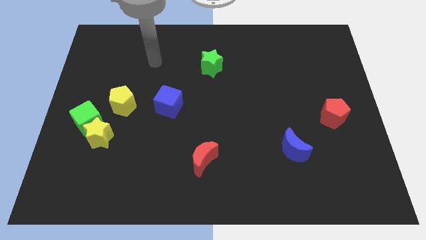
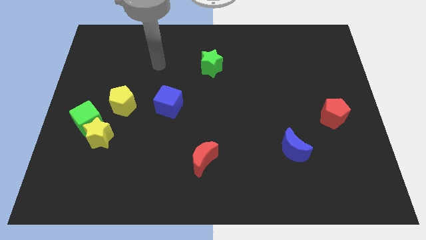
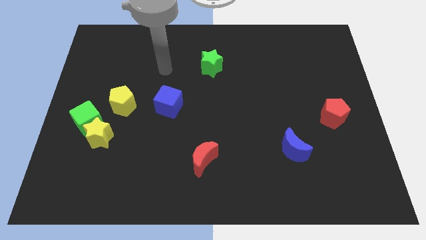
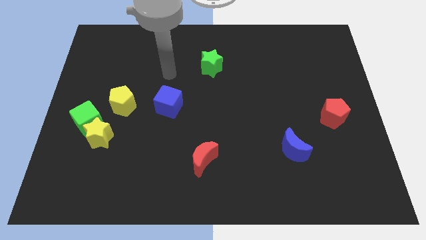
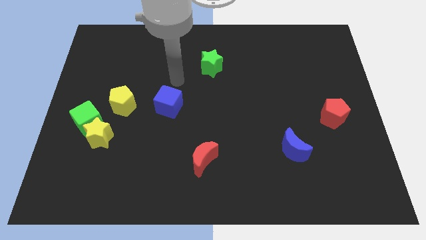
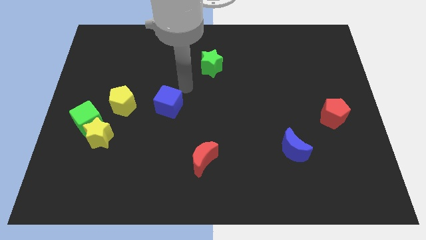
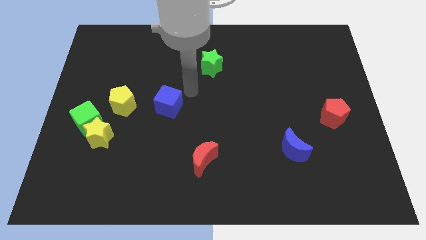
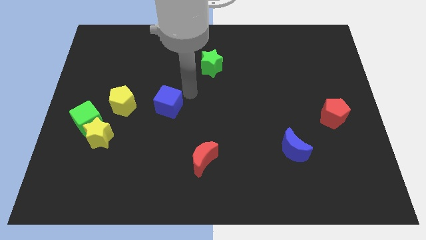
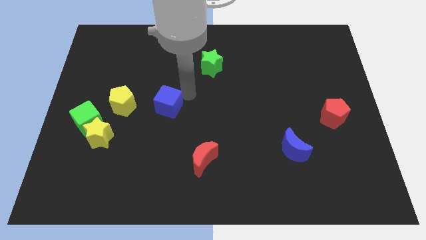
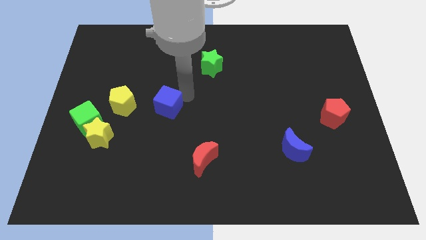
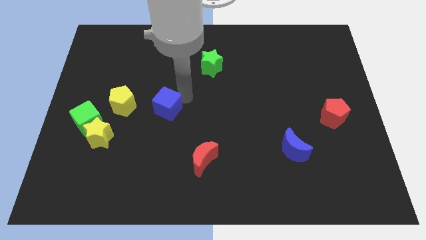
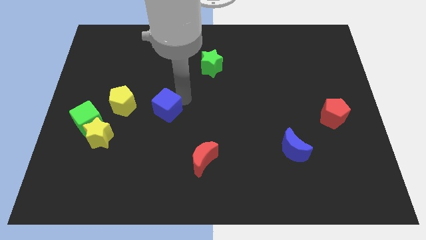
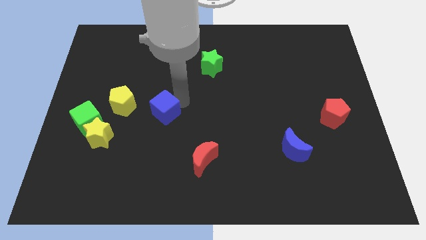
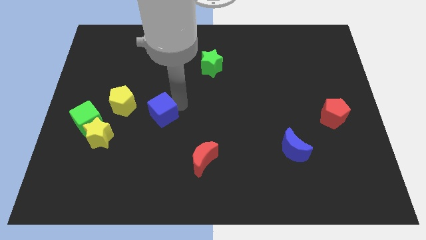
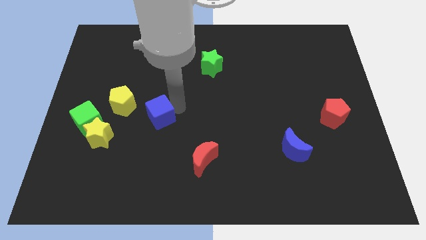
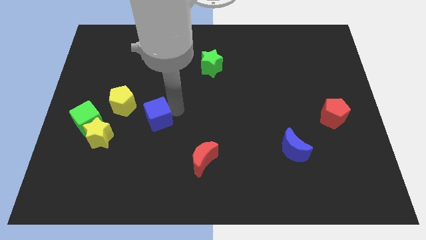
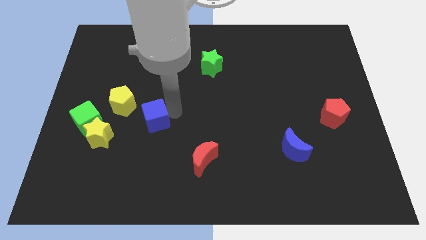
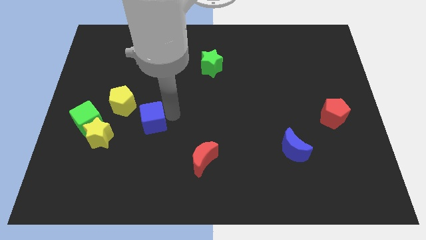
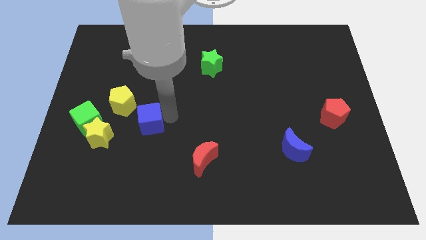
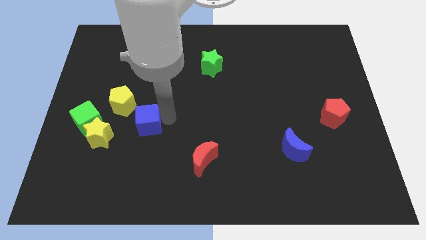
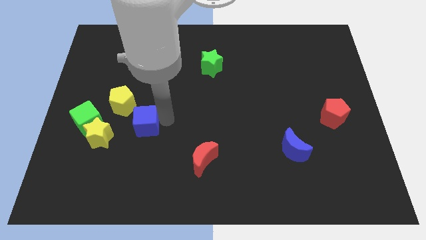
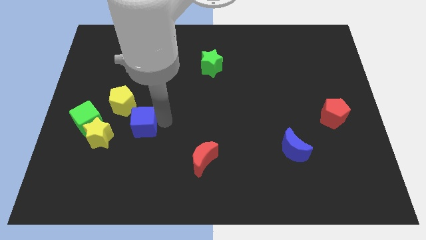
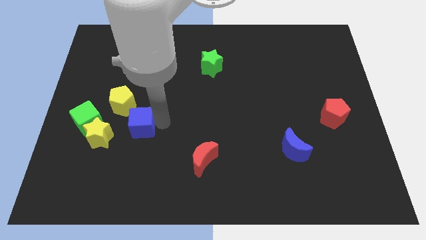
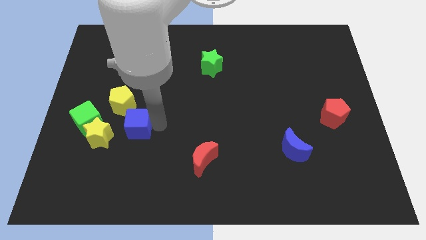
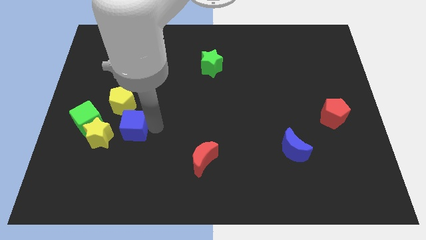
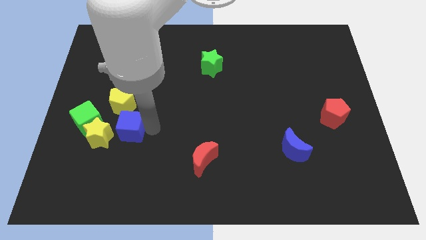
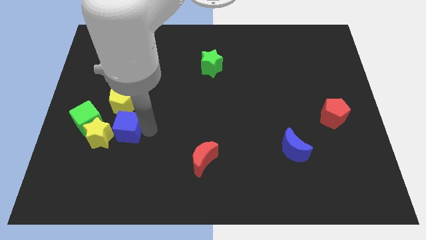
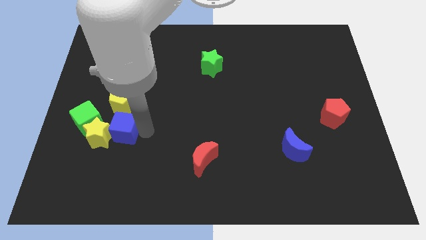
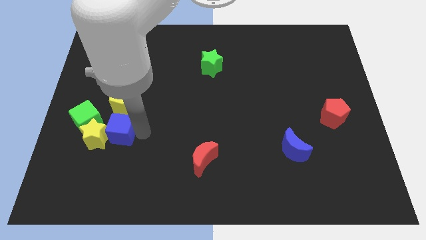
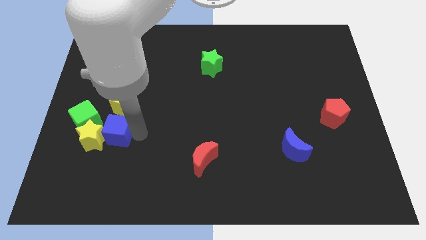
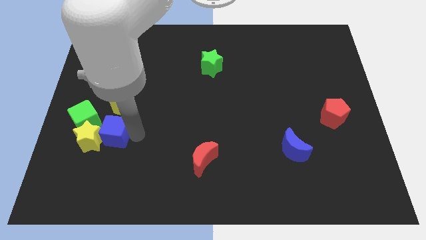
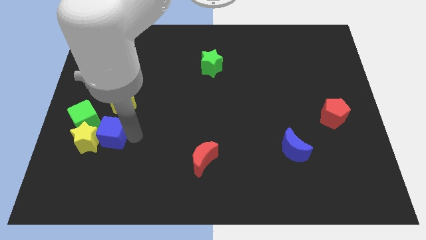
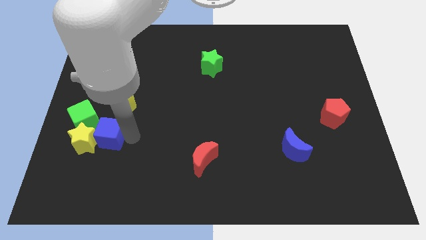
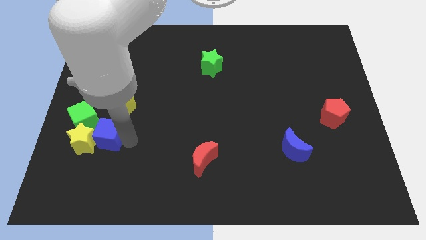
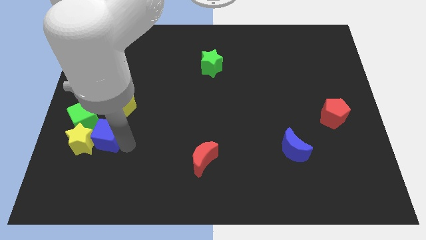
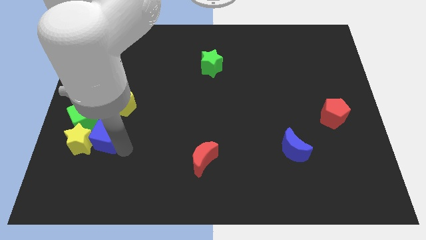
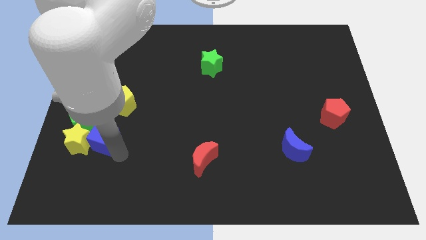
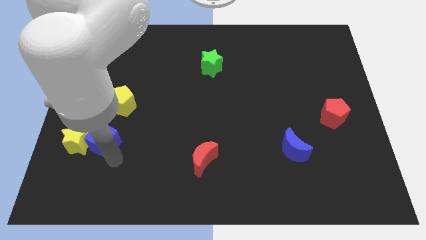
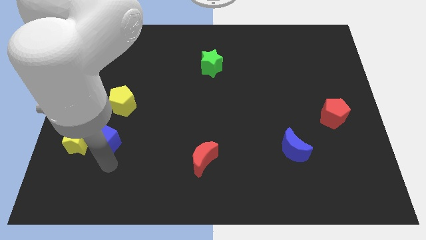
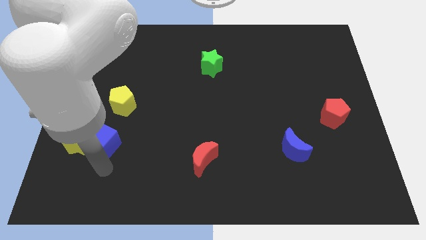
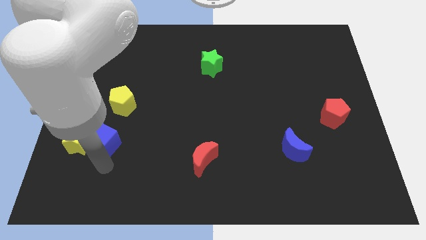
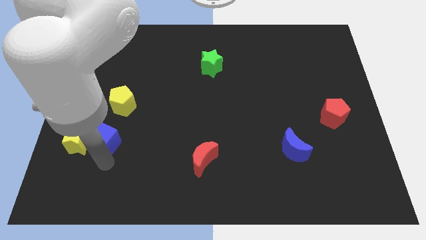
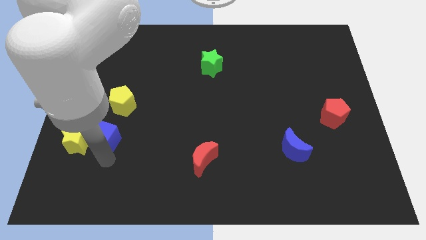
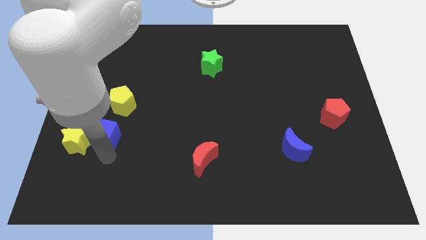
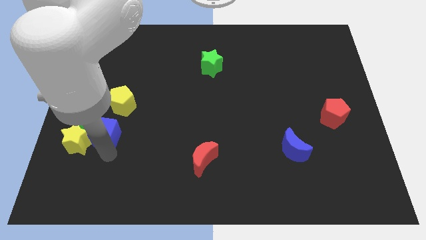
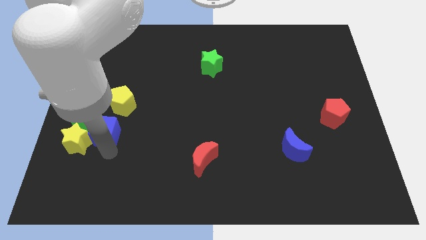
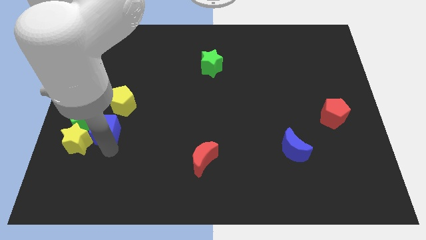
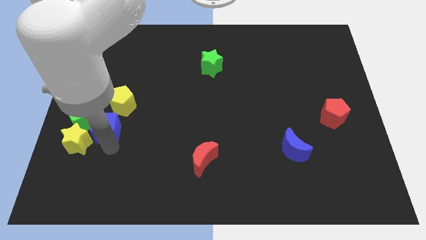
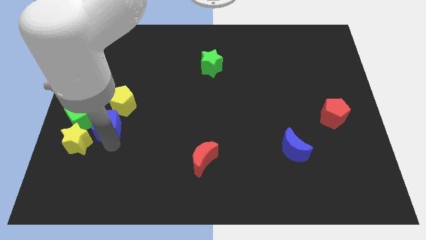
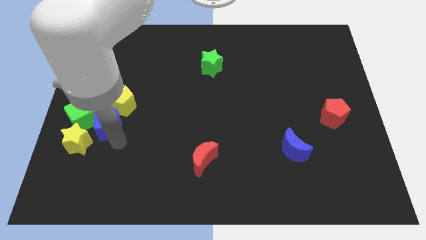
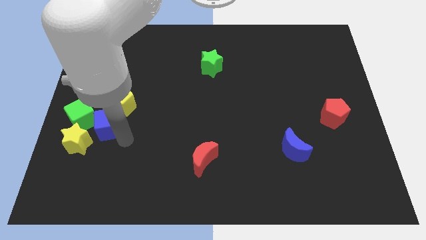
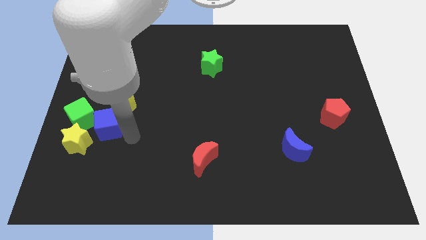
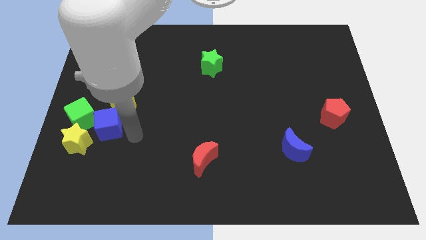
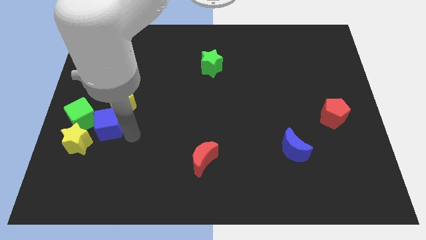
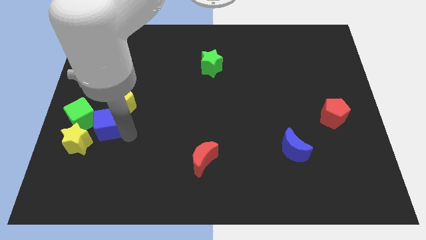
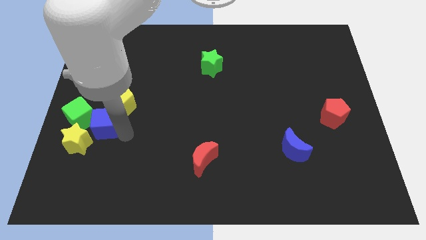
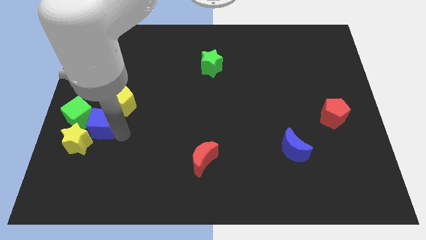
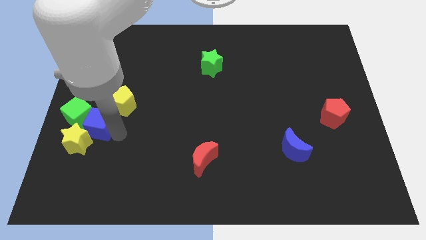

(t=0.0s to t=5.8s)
move the blue cube next to the green cube

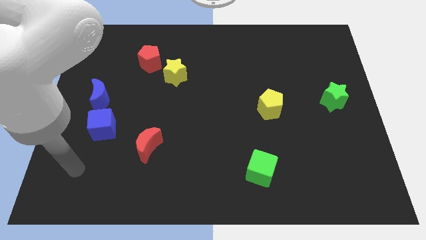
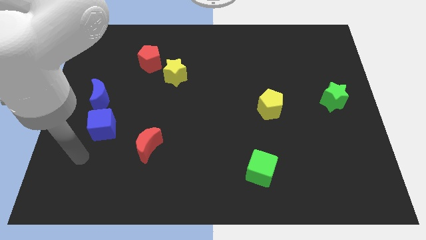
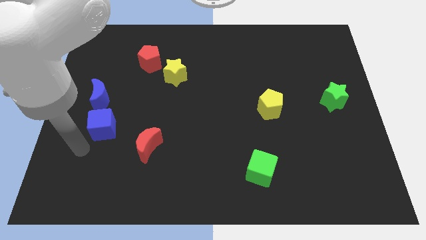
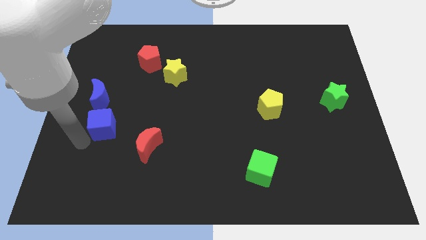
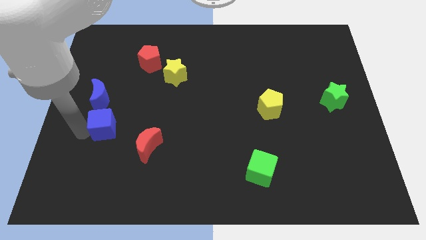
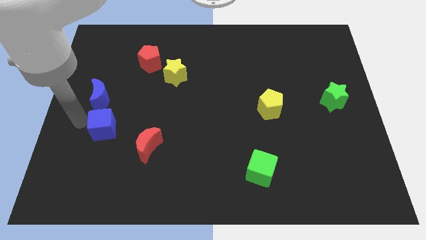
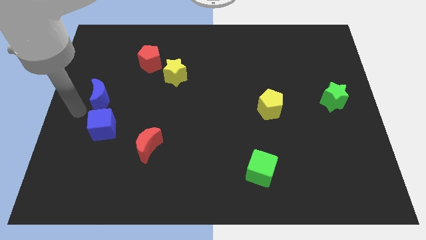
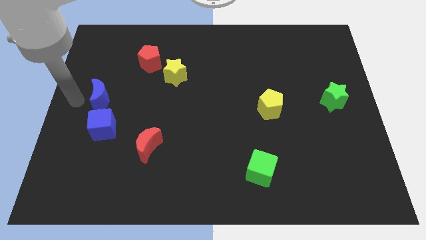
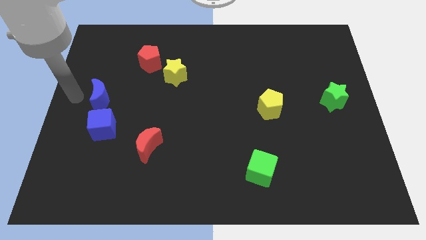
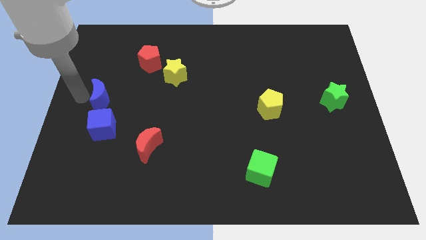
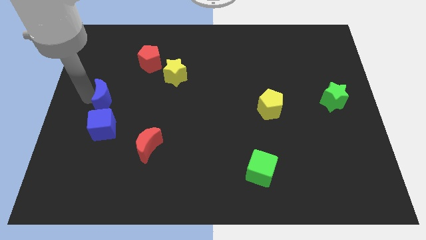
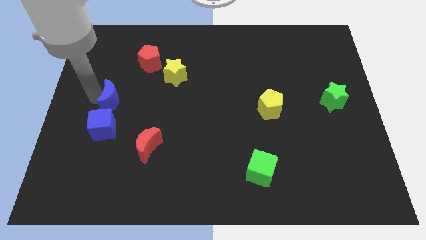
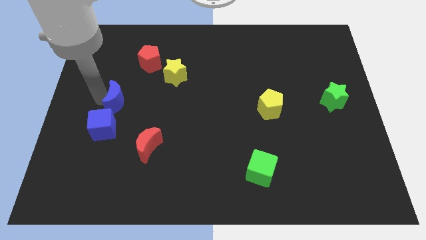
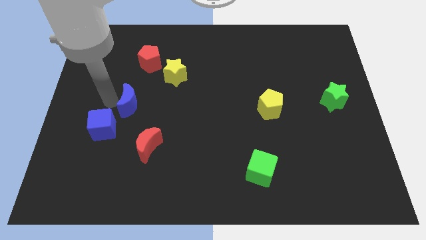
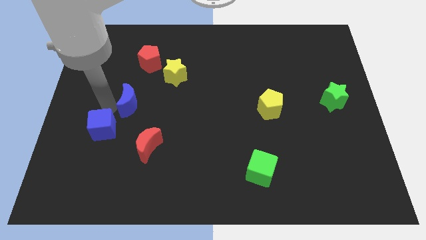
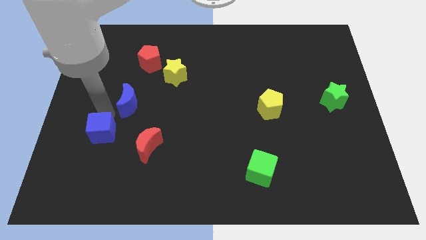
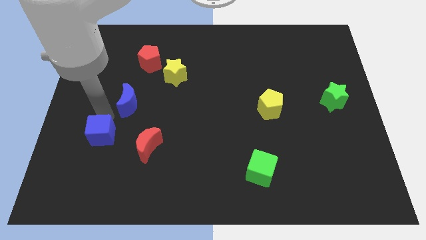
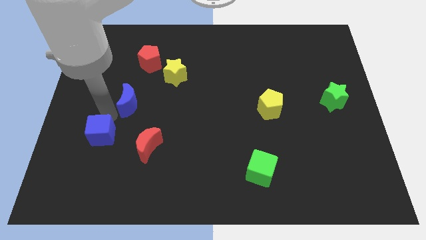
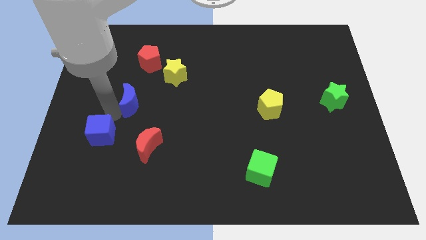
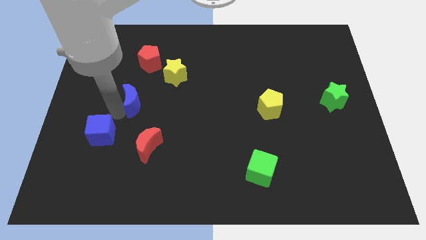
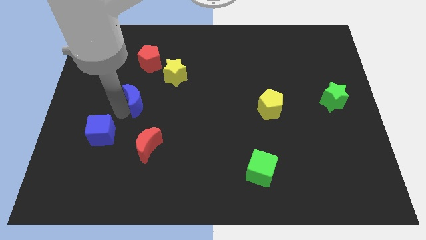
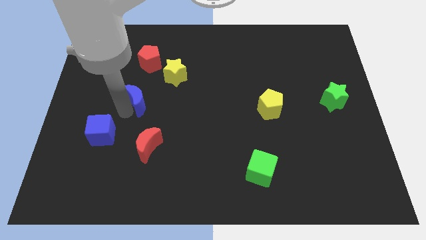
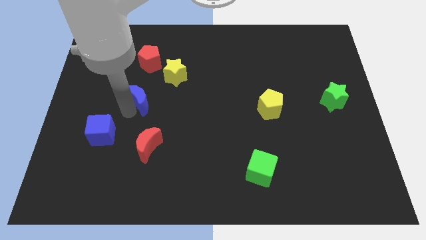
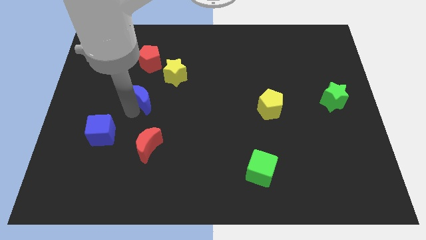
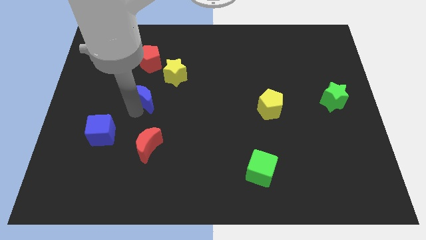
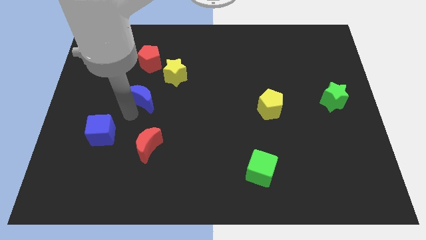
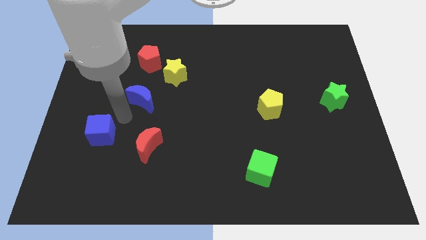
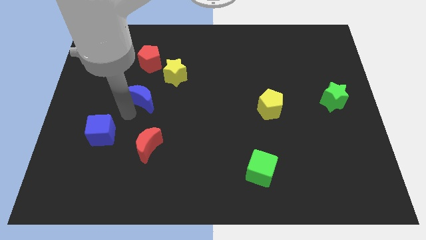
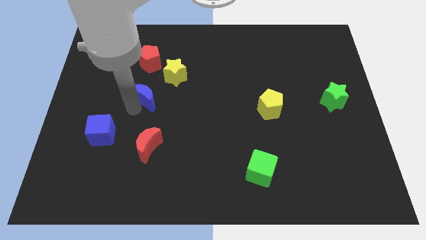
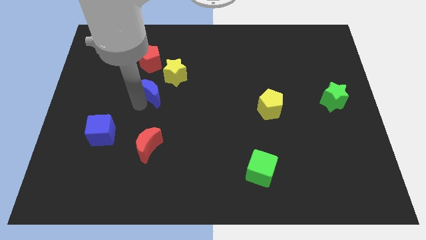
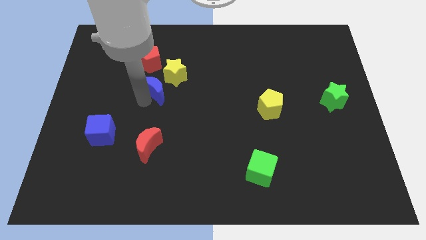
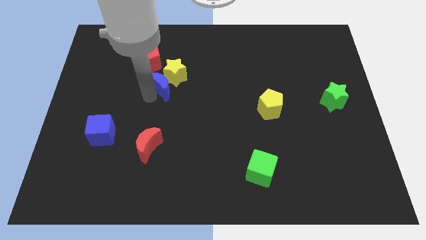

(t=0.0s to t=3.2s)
move the blue moon to the yellow star
